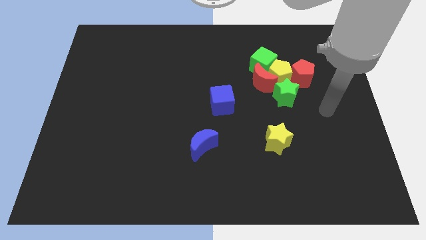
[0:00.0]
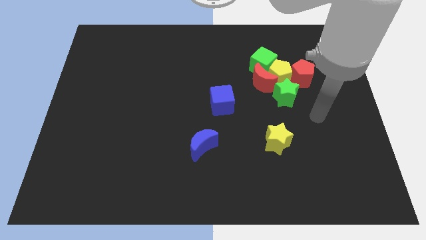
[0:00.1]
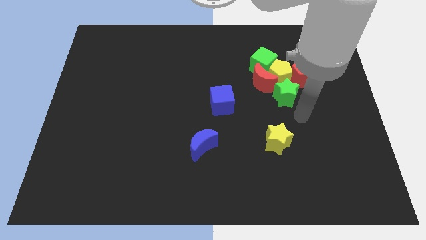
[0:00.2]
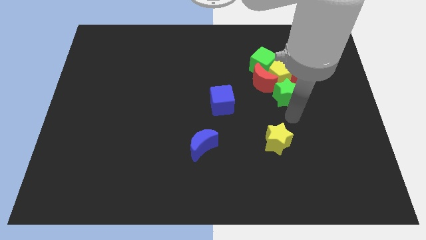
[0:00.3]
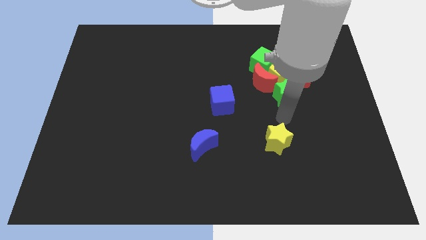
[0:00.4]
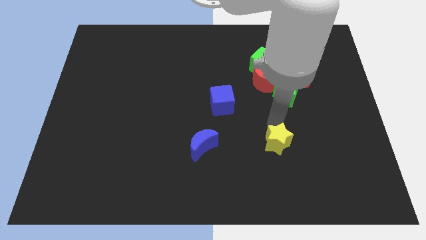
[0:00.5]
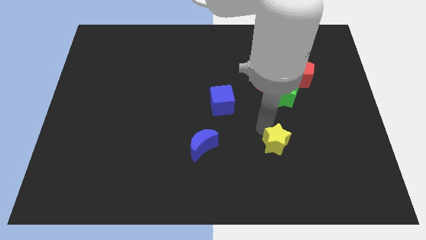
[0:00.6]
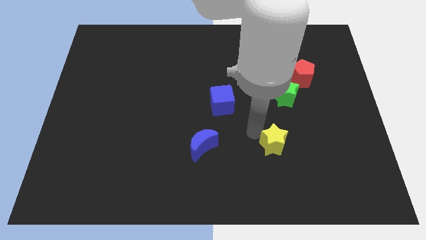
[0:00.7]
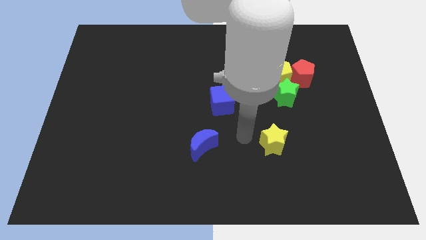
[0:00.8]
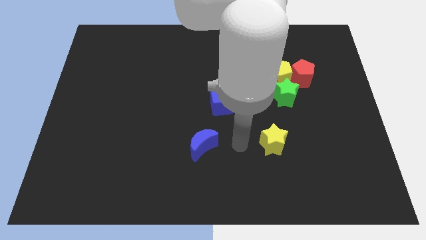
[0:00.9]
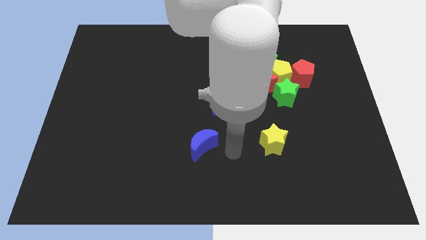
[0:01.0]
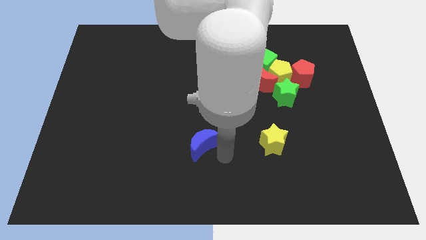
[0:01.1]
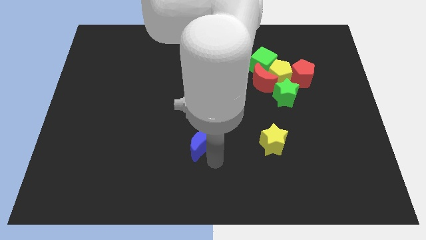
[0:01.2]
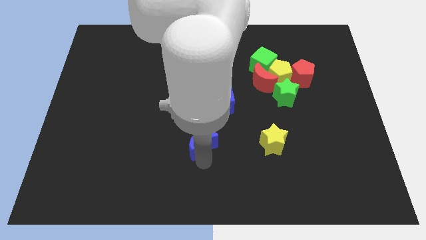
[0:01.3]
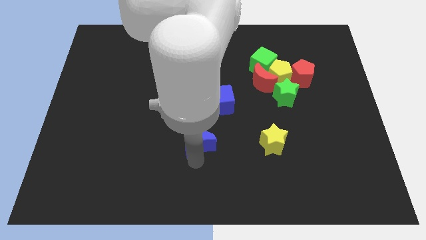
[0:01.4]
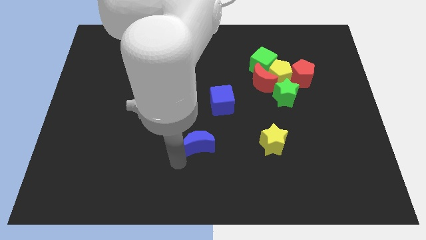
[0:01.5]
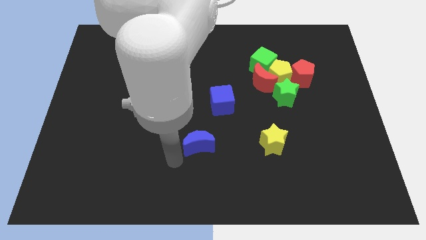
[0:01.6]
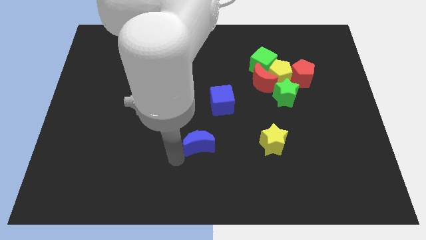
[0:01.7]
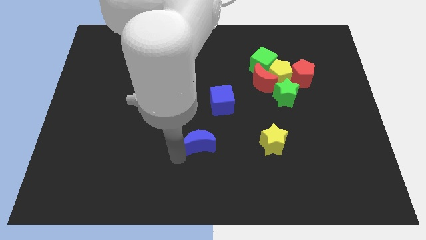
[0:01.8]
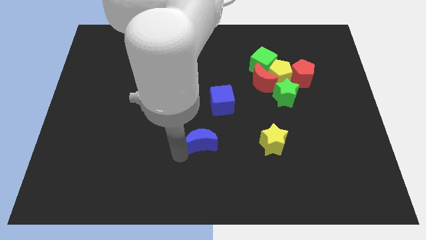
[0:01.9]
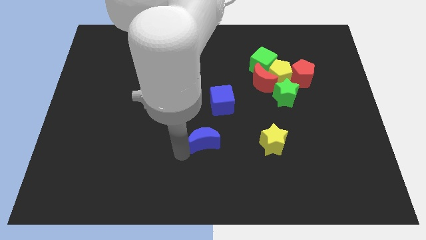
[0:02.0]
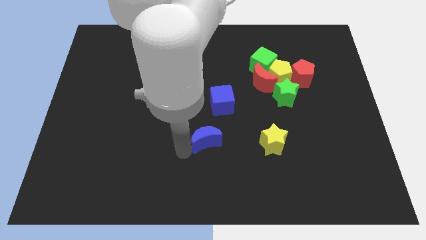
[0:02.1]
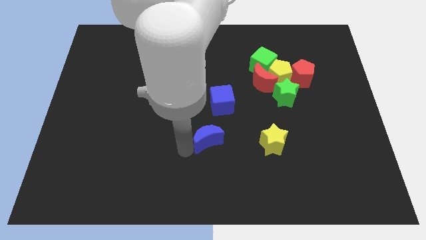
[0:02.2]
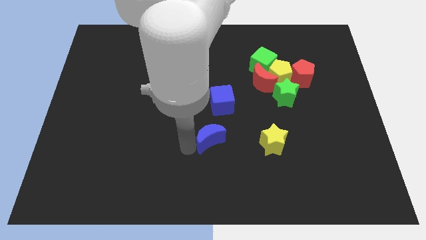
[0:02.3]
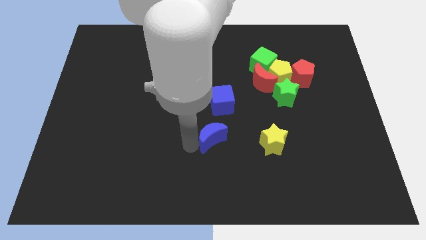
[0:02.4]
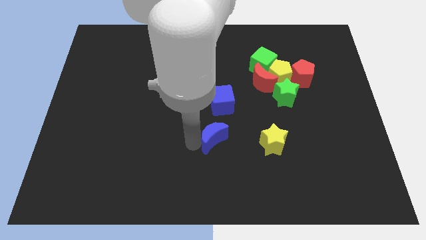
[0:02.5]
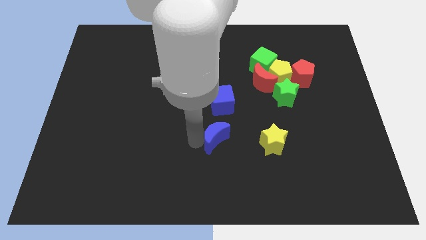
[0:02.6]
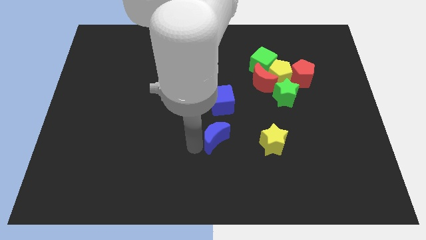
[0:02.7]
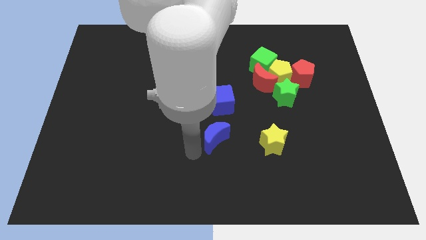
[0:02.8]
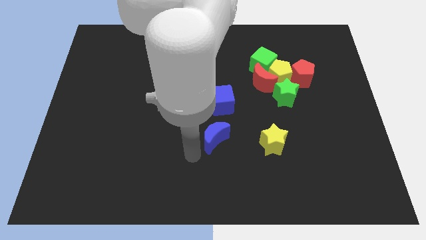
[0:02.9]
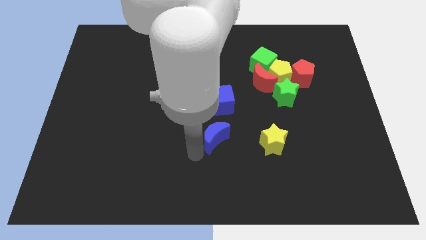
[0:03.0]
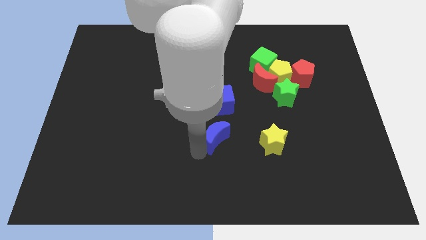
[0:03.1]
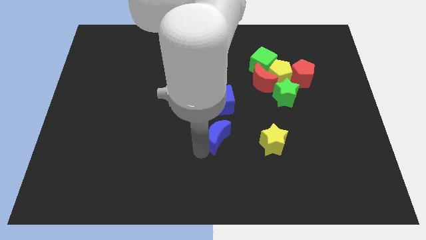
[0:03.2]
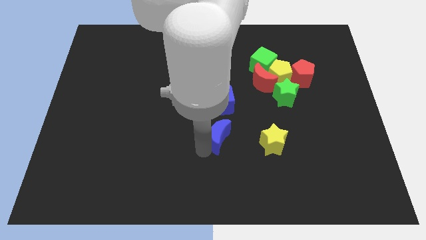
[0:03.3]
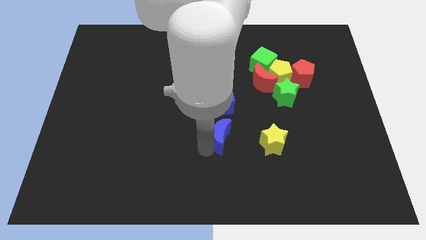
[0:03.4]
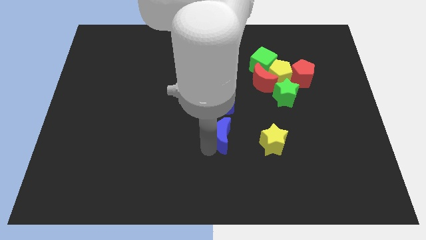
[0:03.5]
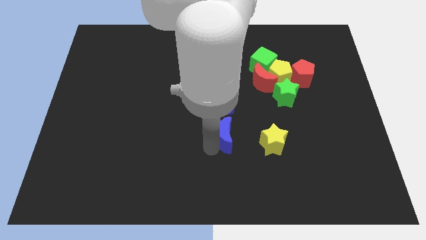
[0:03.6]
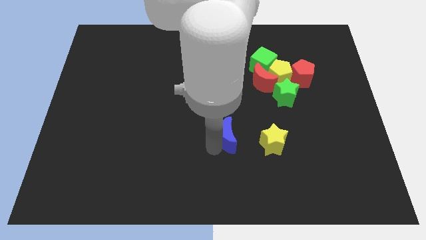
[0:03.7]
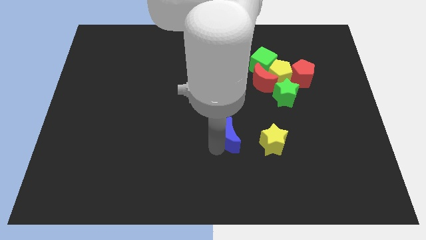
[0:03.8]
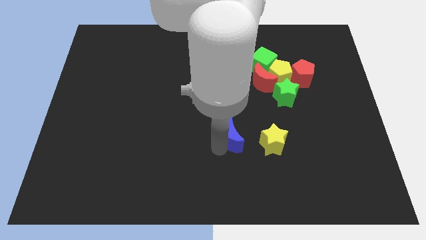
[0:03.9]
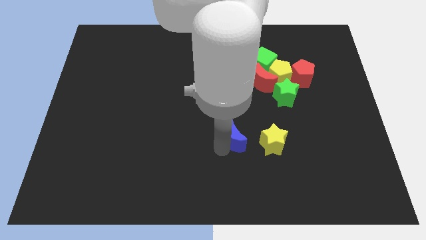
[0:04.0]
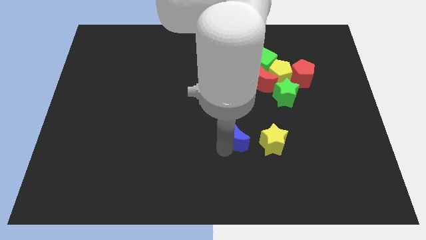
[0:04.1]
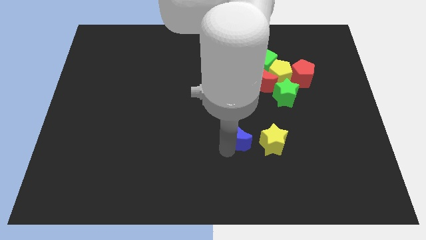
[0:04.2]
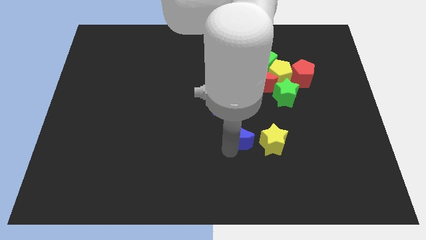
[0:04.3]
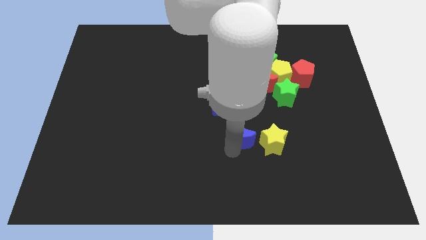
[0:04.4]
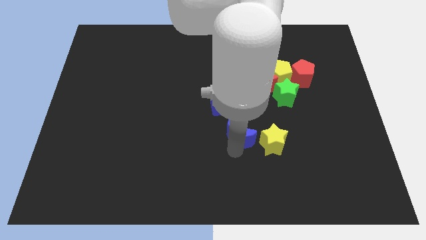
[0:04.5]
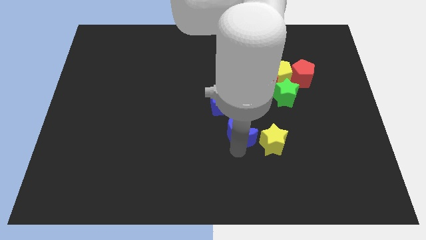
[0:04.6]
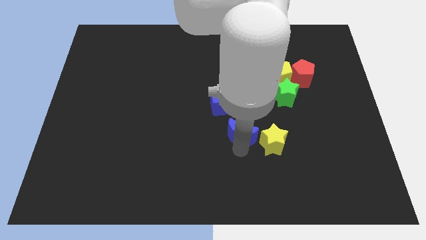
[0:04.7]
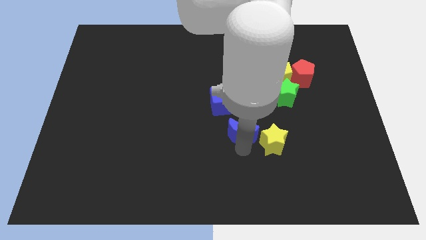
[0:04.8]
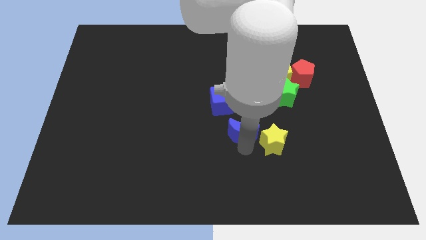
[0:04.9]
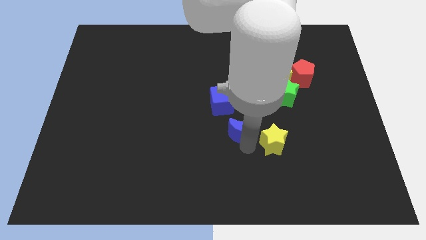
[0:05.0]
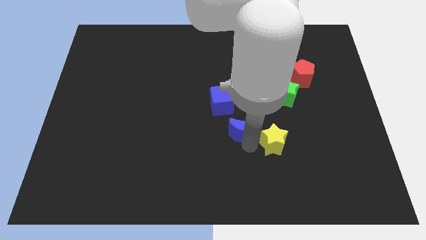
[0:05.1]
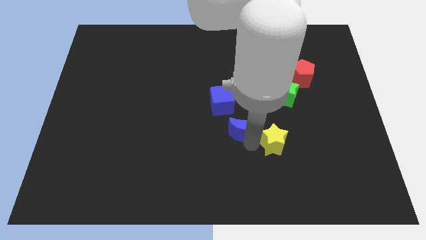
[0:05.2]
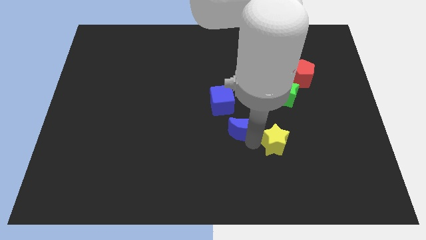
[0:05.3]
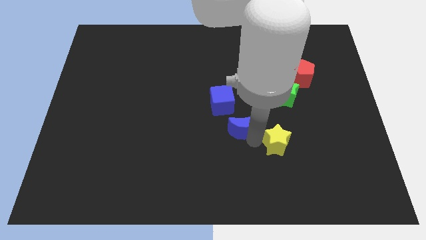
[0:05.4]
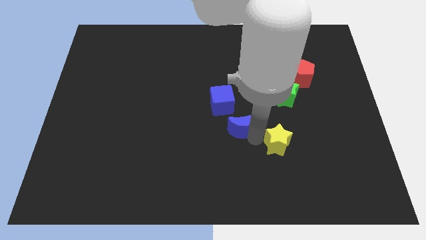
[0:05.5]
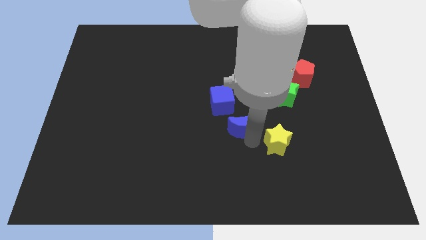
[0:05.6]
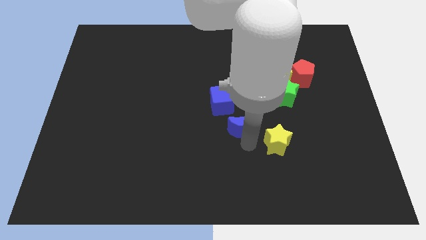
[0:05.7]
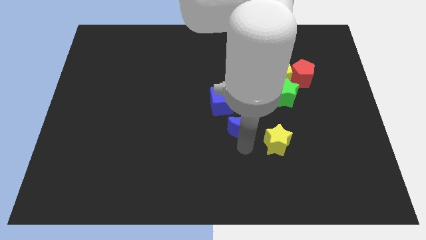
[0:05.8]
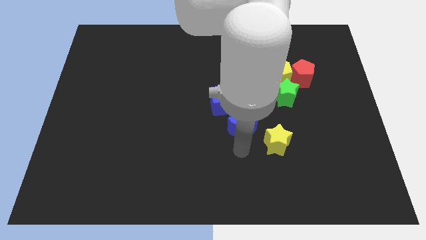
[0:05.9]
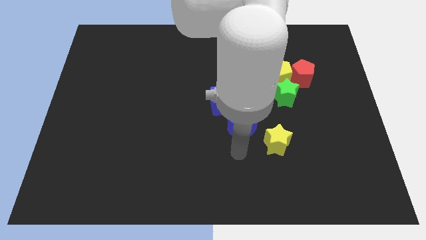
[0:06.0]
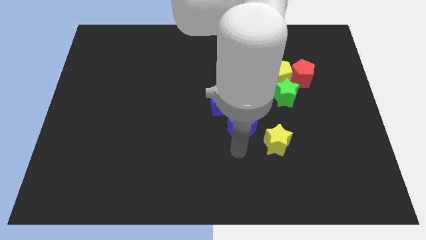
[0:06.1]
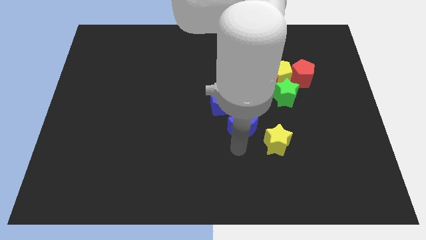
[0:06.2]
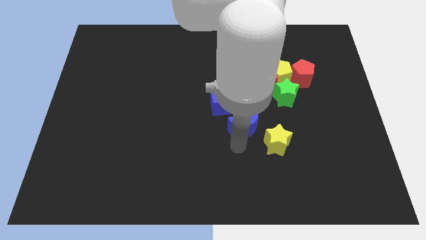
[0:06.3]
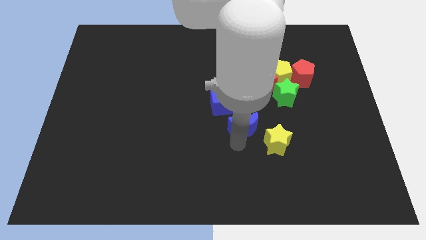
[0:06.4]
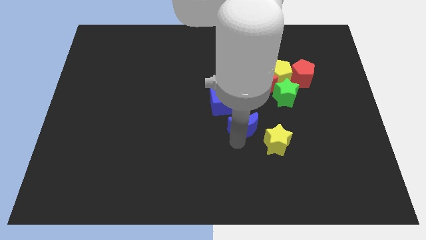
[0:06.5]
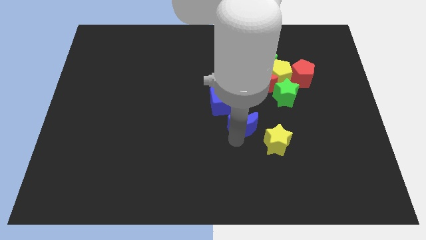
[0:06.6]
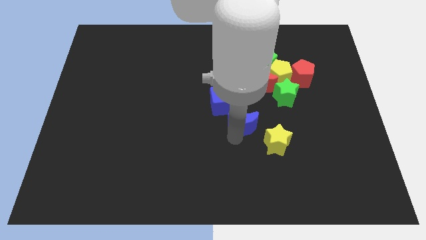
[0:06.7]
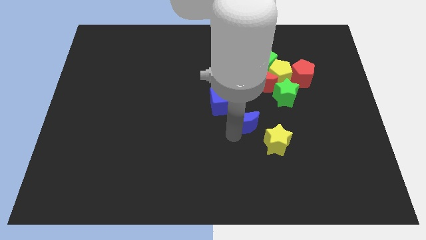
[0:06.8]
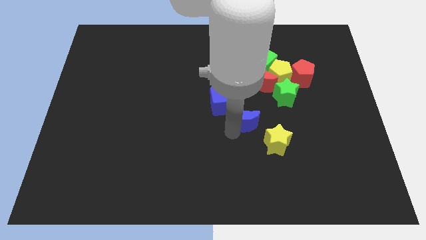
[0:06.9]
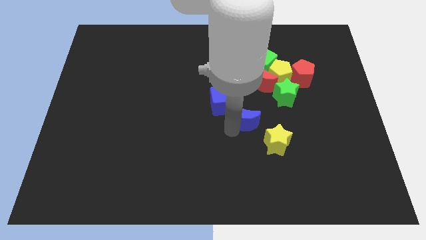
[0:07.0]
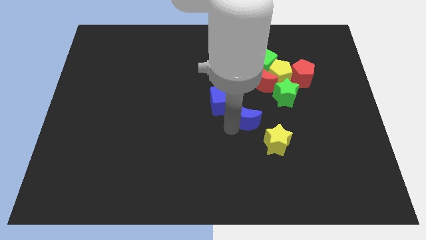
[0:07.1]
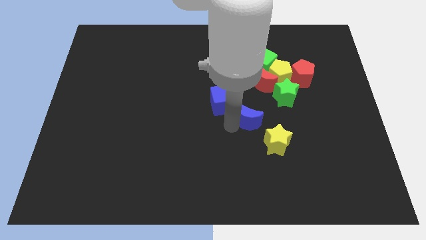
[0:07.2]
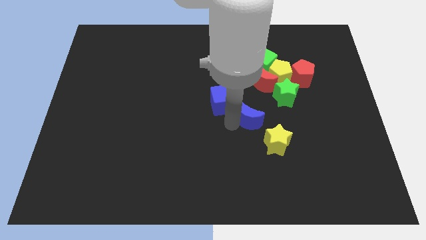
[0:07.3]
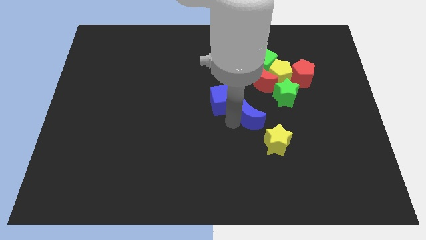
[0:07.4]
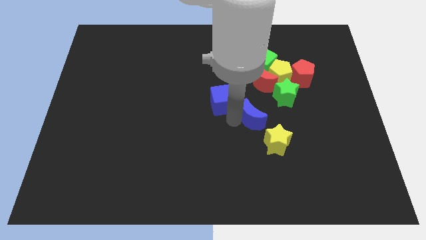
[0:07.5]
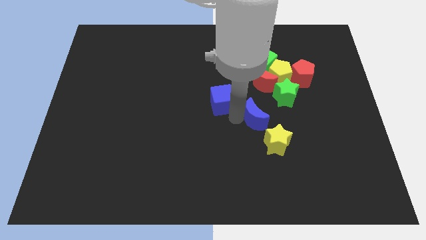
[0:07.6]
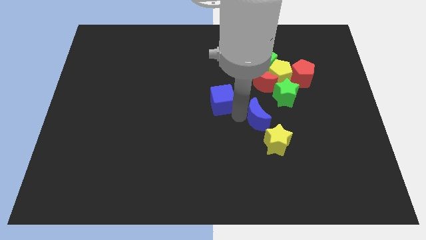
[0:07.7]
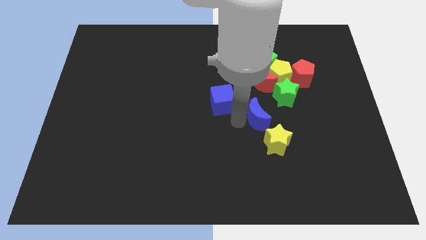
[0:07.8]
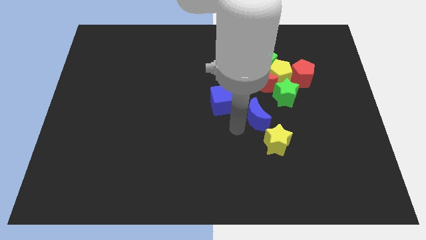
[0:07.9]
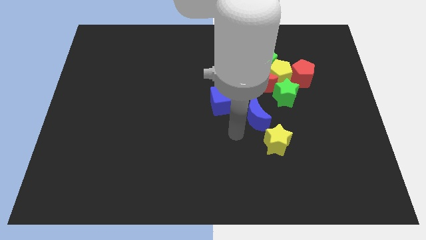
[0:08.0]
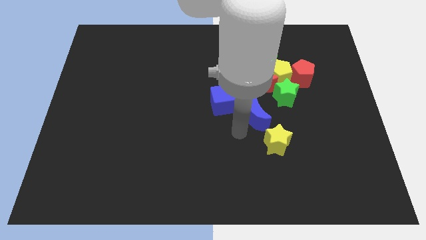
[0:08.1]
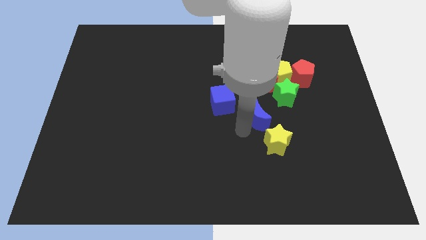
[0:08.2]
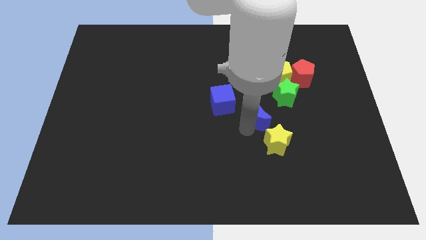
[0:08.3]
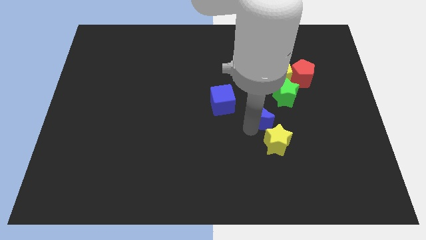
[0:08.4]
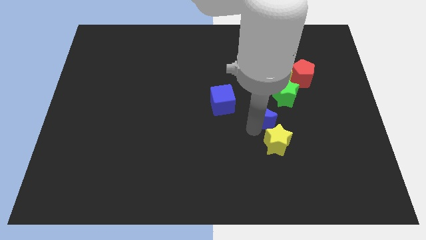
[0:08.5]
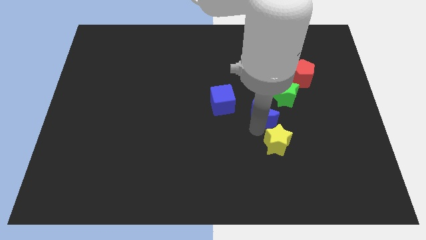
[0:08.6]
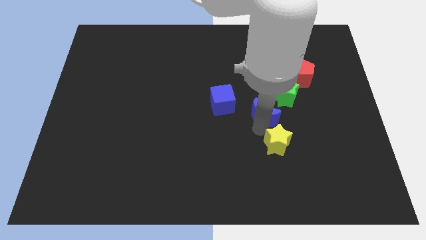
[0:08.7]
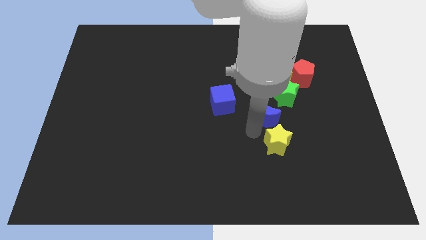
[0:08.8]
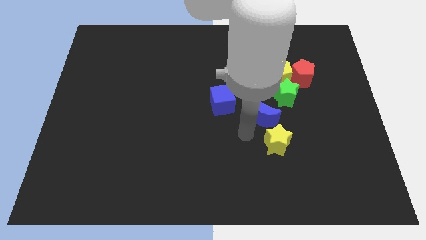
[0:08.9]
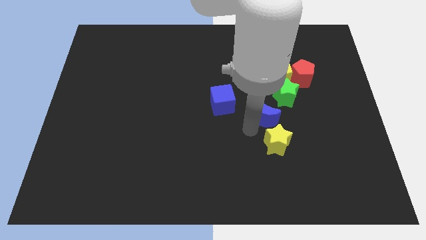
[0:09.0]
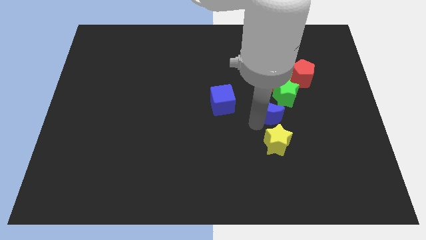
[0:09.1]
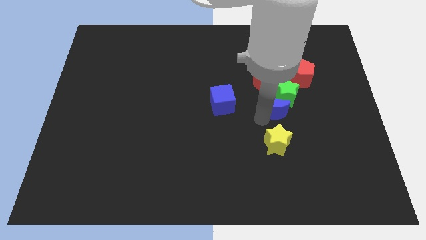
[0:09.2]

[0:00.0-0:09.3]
slide the blue moon towards the green star
